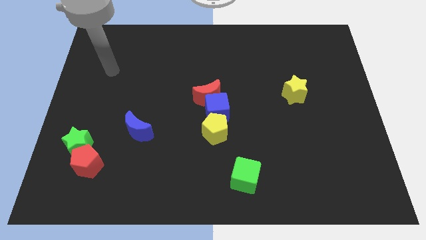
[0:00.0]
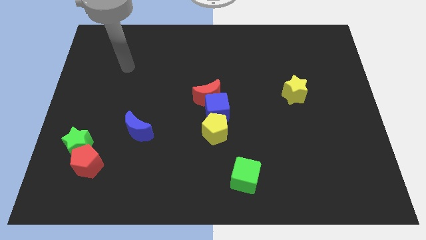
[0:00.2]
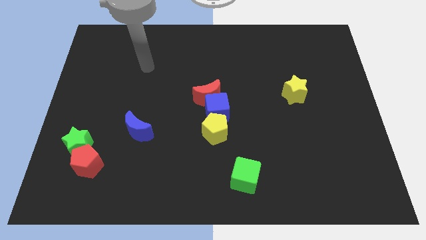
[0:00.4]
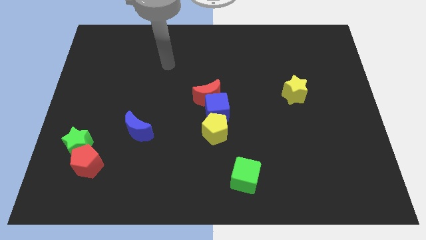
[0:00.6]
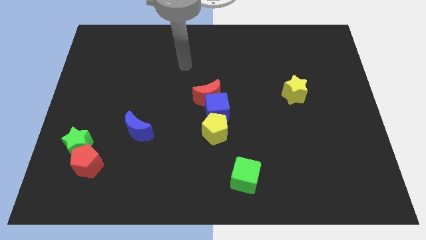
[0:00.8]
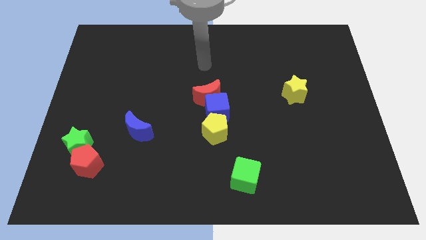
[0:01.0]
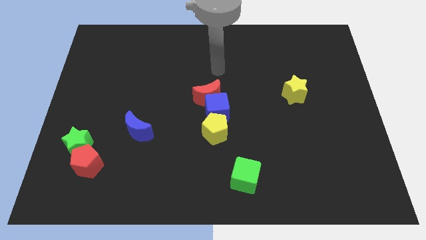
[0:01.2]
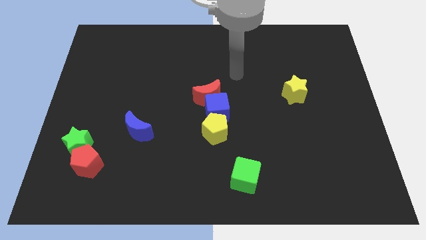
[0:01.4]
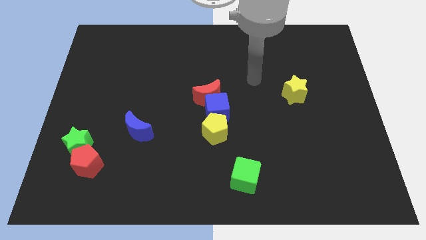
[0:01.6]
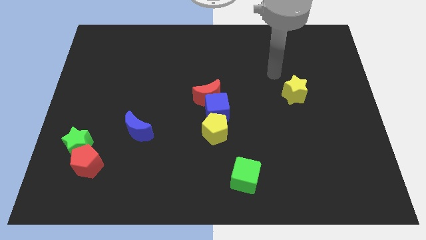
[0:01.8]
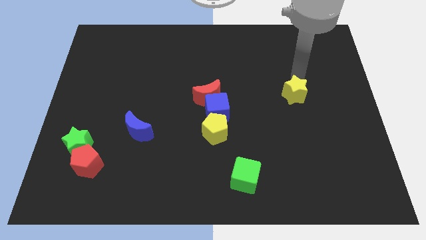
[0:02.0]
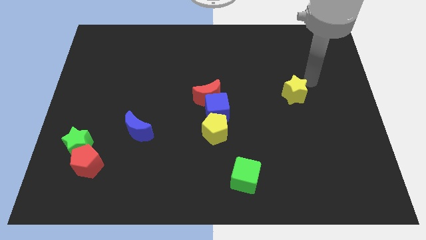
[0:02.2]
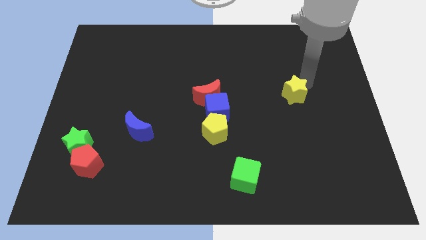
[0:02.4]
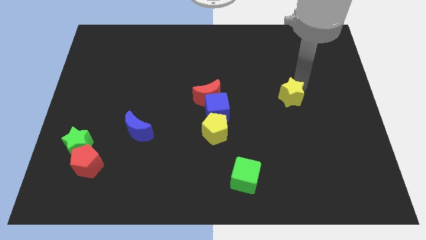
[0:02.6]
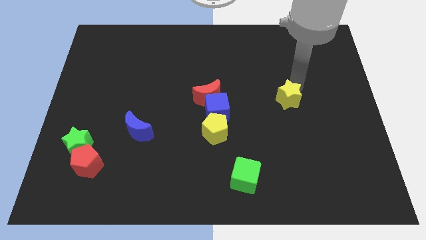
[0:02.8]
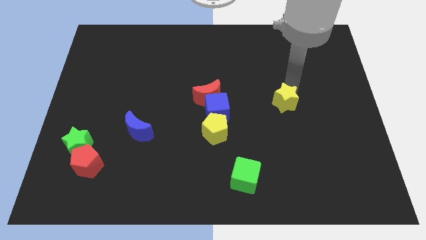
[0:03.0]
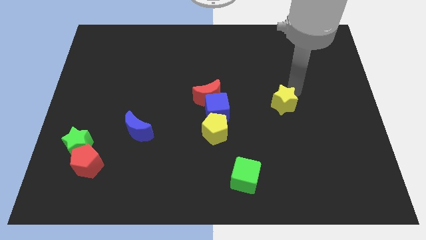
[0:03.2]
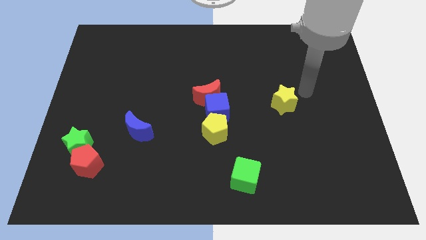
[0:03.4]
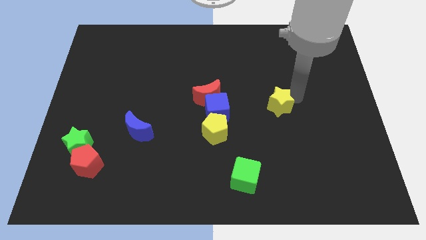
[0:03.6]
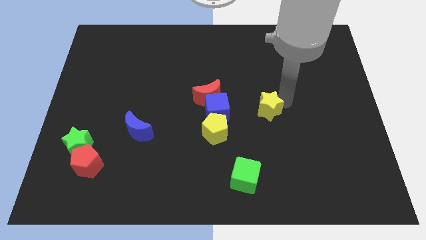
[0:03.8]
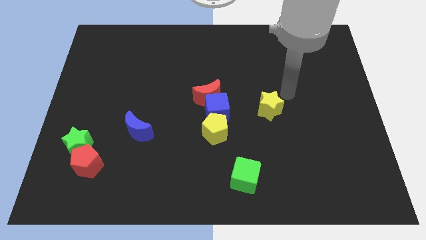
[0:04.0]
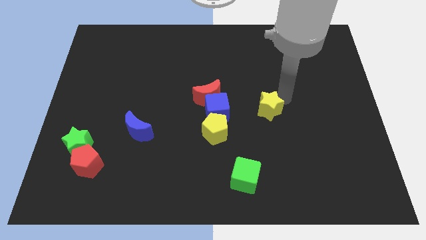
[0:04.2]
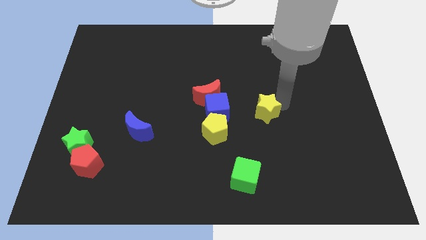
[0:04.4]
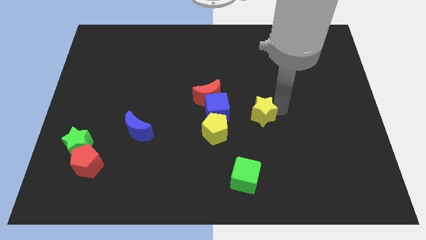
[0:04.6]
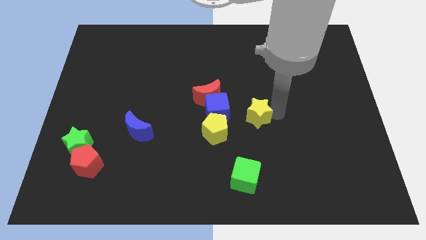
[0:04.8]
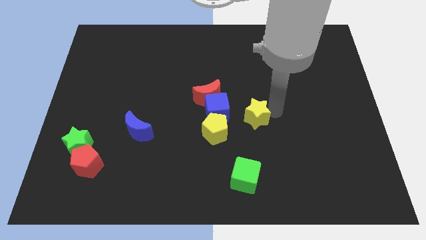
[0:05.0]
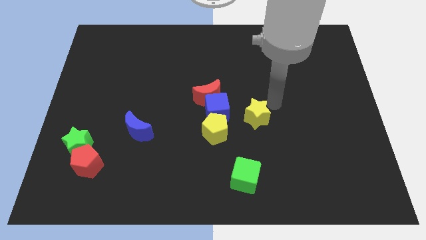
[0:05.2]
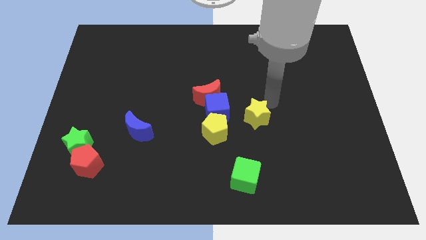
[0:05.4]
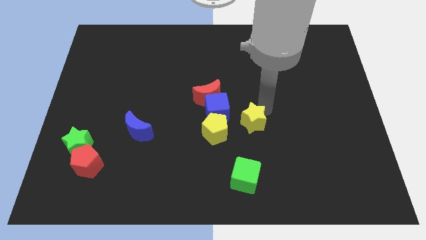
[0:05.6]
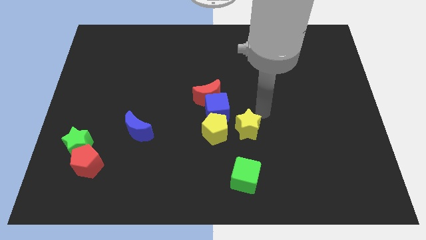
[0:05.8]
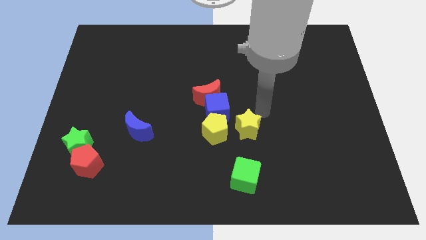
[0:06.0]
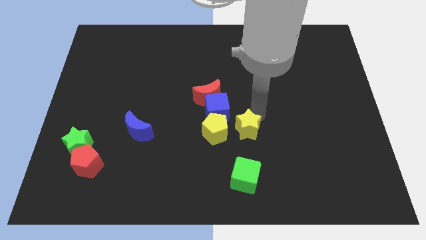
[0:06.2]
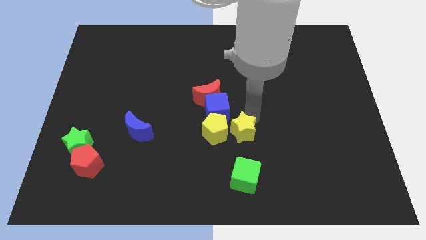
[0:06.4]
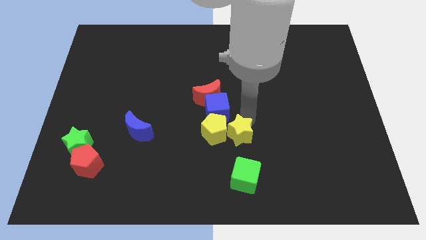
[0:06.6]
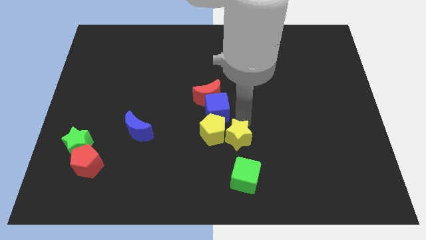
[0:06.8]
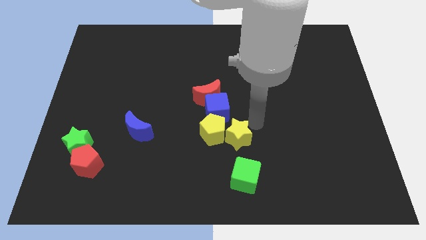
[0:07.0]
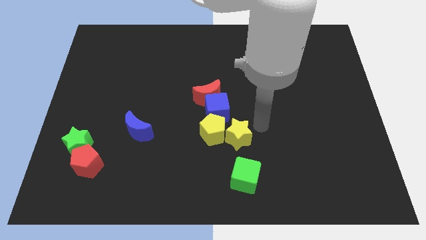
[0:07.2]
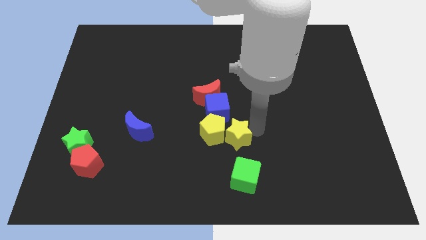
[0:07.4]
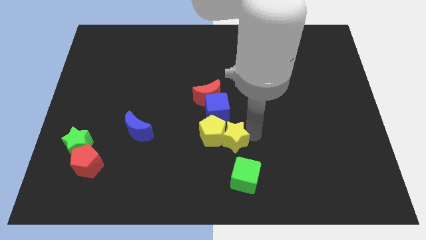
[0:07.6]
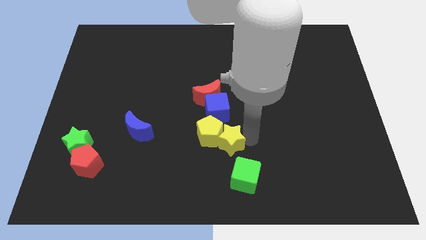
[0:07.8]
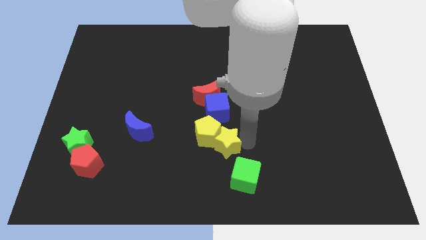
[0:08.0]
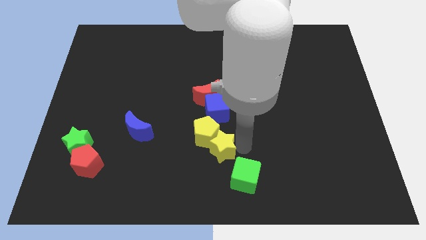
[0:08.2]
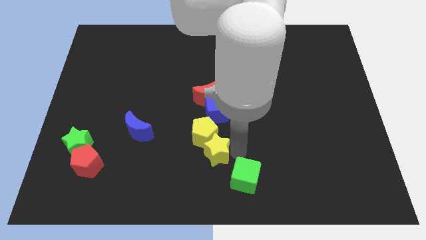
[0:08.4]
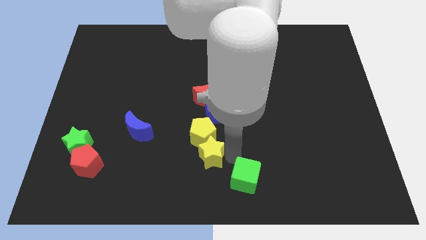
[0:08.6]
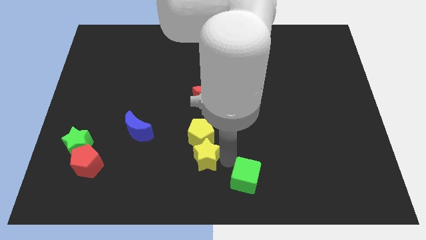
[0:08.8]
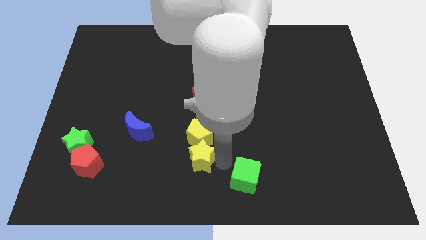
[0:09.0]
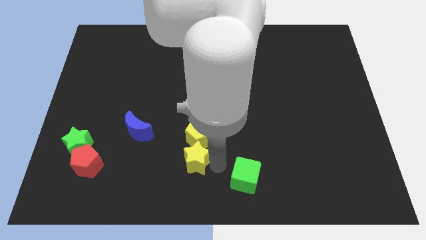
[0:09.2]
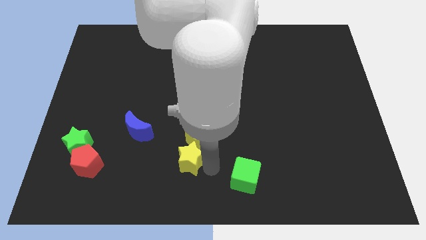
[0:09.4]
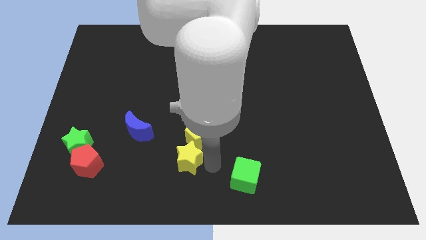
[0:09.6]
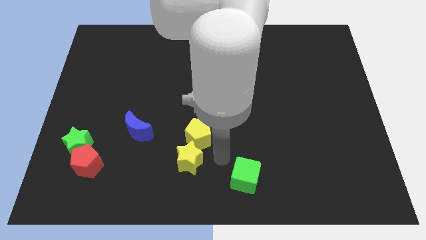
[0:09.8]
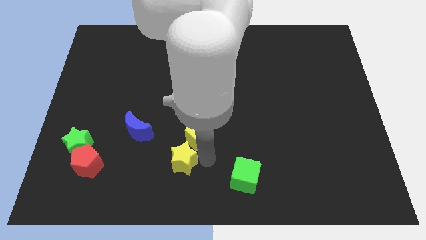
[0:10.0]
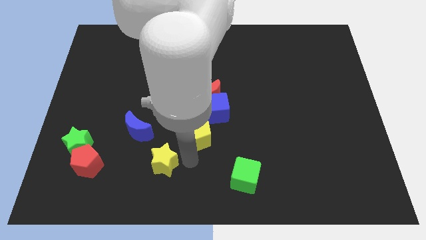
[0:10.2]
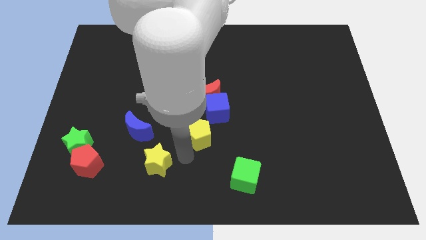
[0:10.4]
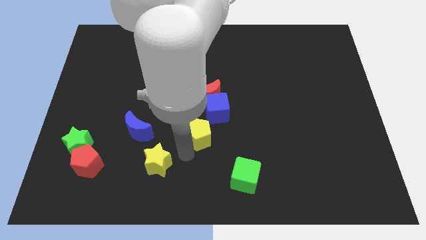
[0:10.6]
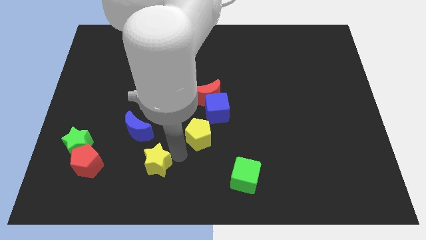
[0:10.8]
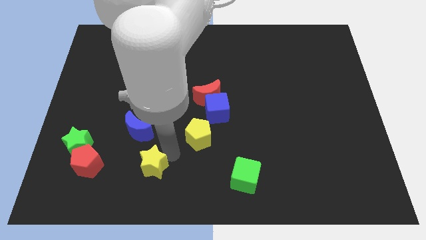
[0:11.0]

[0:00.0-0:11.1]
slide the yellow star to the bottom of the blue moon

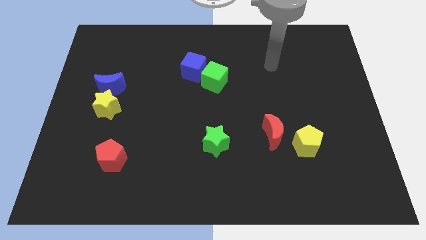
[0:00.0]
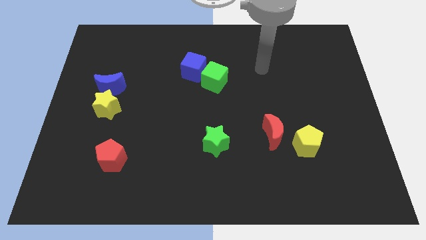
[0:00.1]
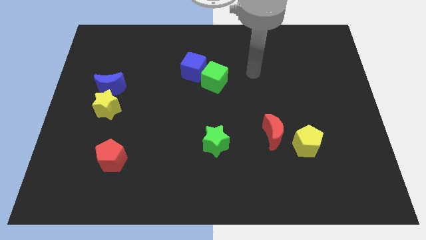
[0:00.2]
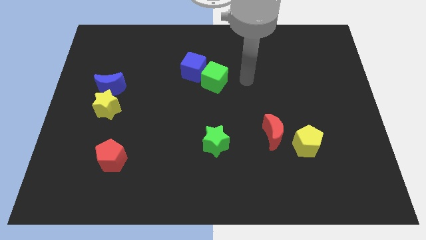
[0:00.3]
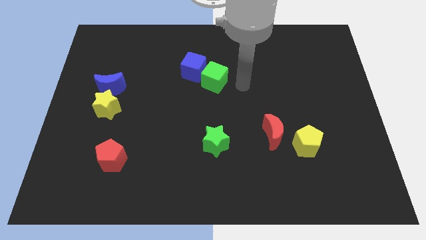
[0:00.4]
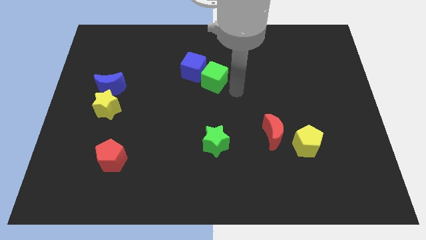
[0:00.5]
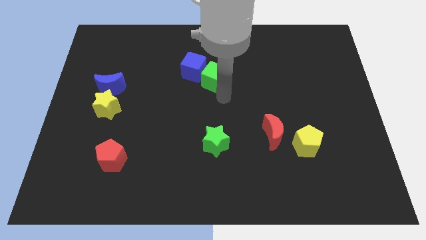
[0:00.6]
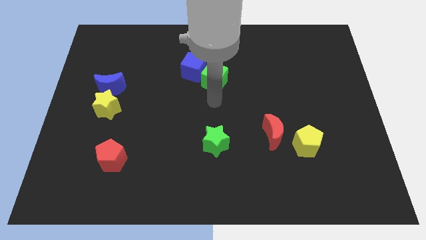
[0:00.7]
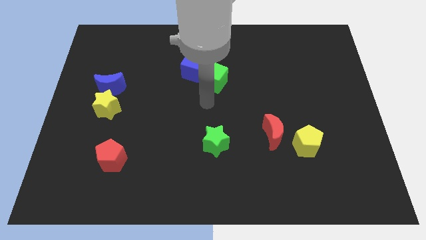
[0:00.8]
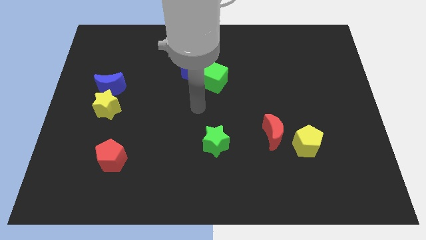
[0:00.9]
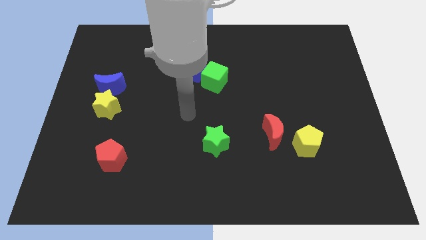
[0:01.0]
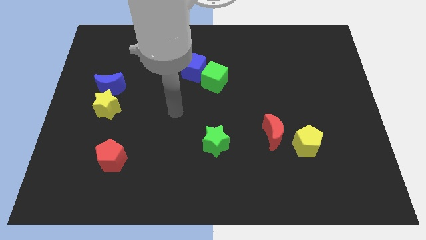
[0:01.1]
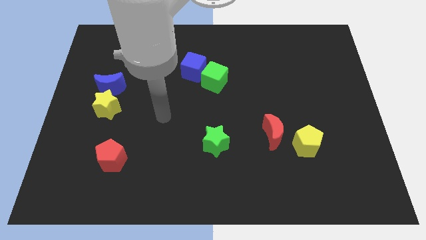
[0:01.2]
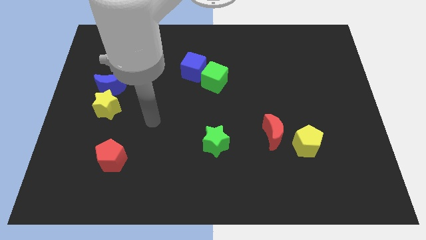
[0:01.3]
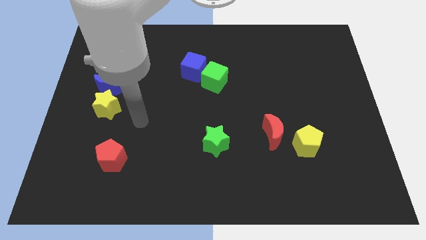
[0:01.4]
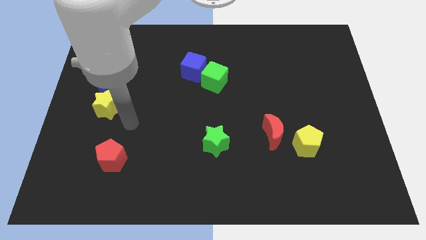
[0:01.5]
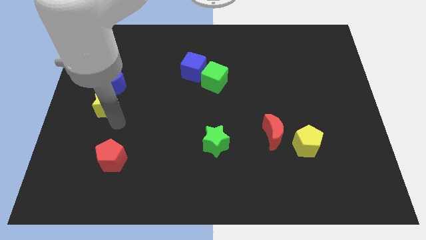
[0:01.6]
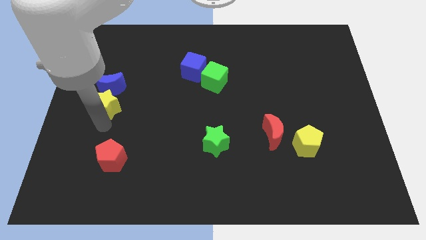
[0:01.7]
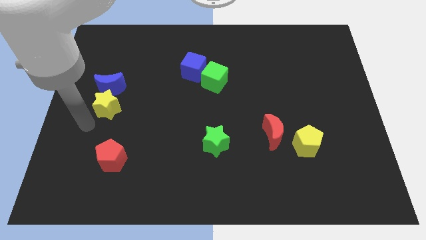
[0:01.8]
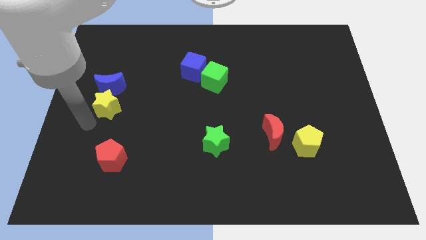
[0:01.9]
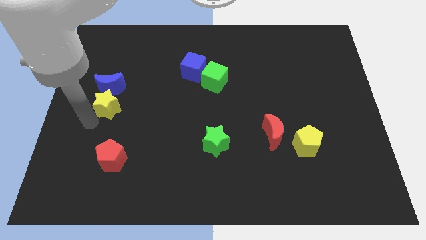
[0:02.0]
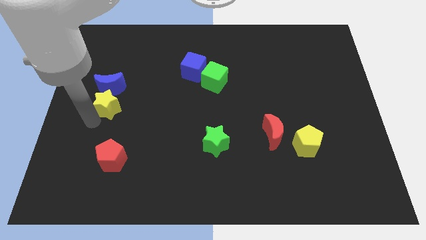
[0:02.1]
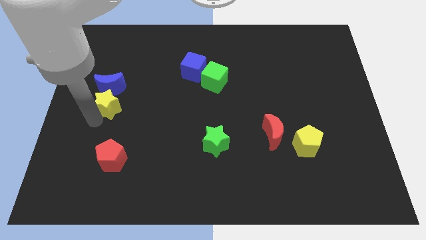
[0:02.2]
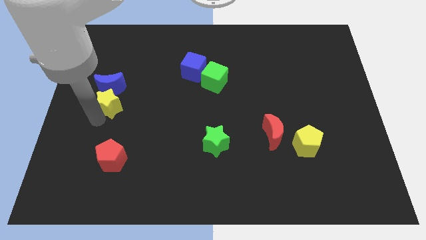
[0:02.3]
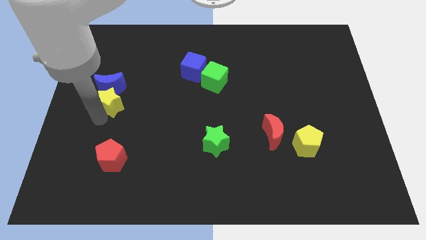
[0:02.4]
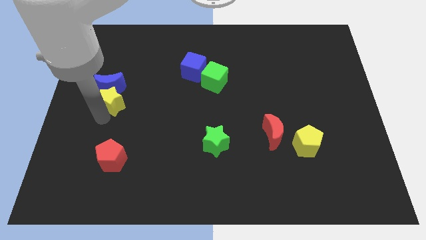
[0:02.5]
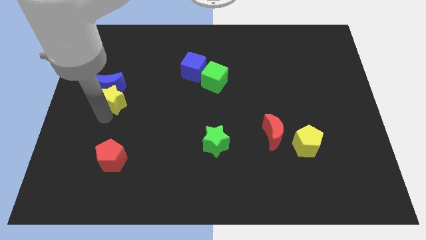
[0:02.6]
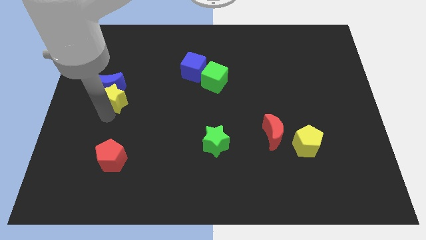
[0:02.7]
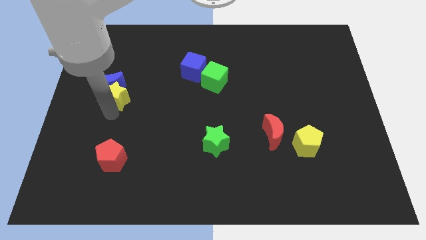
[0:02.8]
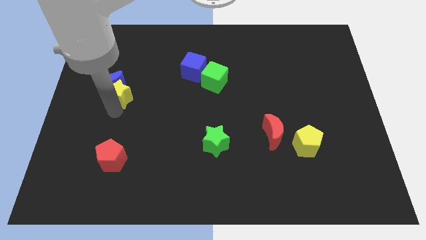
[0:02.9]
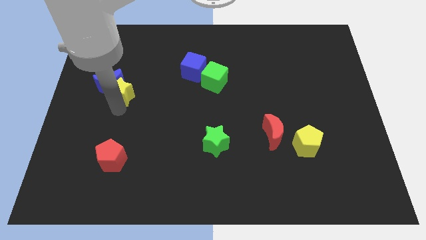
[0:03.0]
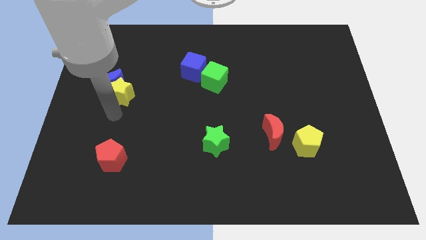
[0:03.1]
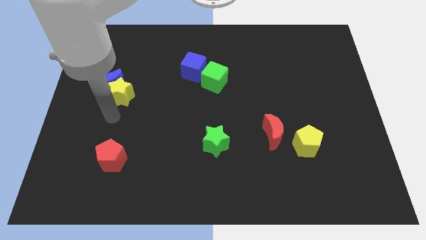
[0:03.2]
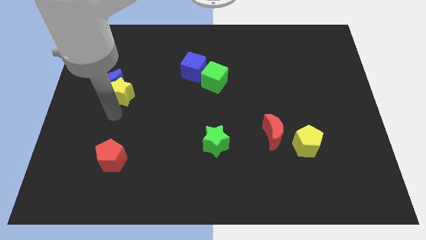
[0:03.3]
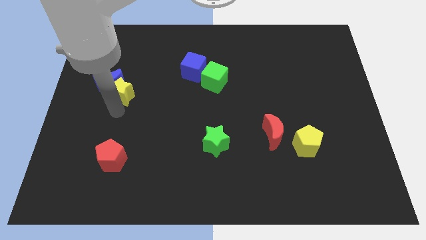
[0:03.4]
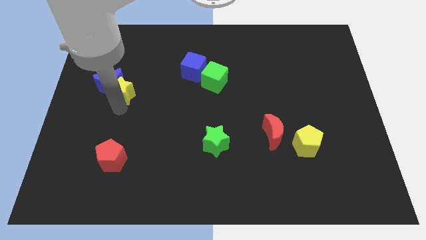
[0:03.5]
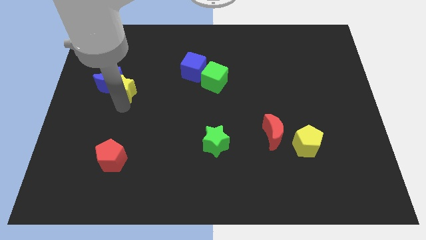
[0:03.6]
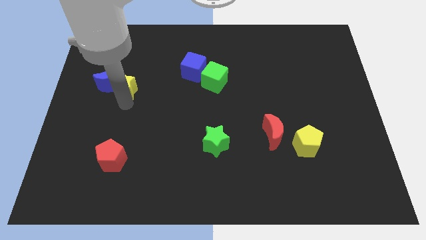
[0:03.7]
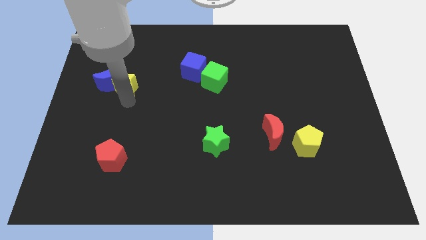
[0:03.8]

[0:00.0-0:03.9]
put the yellow star to the top right of the blue moon
